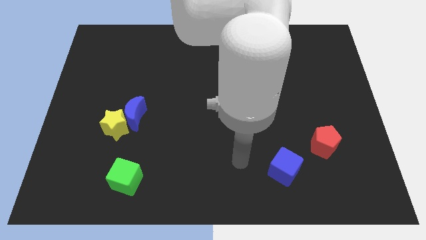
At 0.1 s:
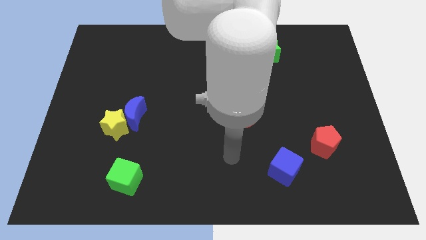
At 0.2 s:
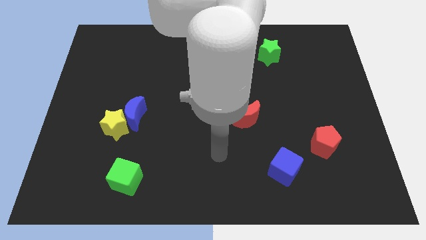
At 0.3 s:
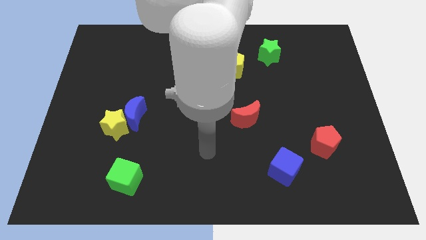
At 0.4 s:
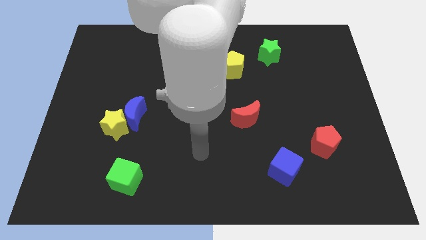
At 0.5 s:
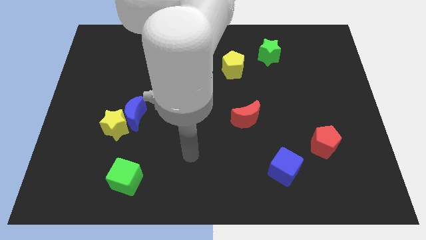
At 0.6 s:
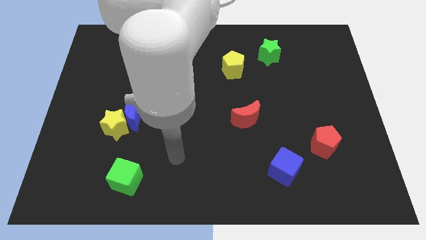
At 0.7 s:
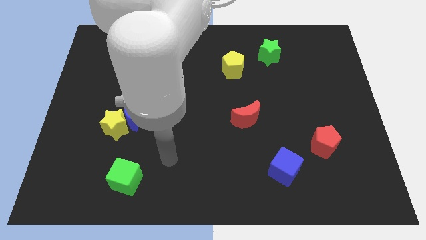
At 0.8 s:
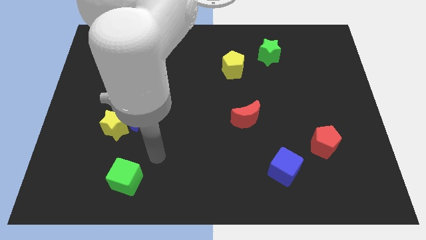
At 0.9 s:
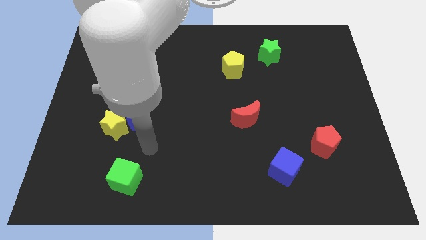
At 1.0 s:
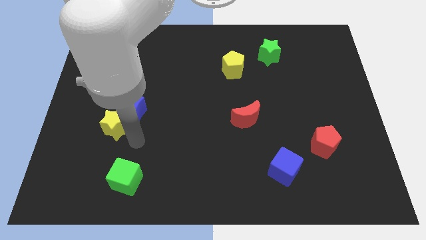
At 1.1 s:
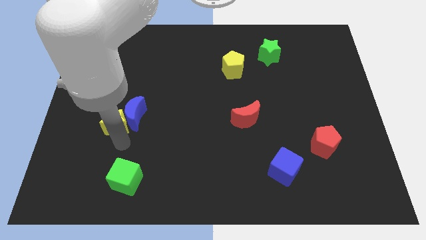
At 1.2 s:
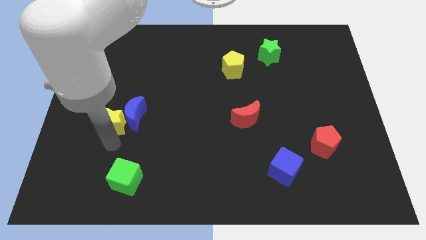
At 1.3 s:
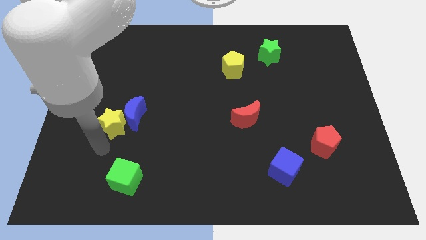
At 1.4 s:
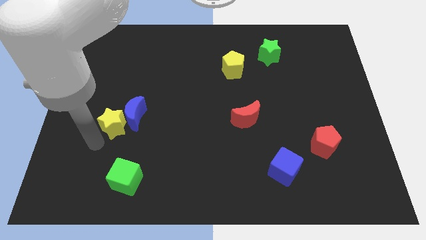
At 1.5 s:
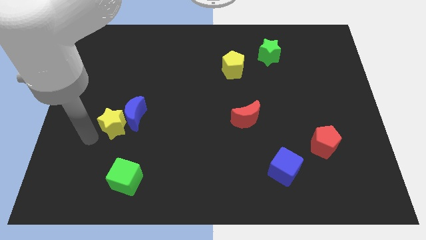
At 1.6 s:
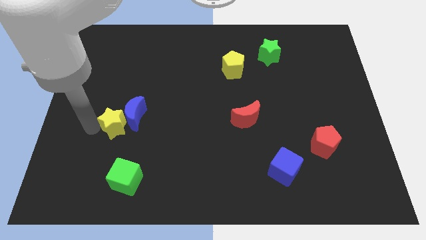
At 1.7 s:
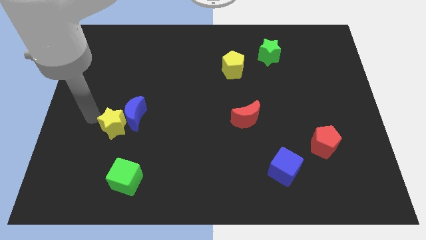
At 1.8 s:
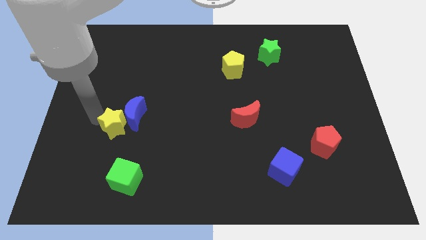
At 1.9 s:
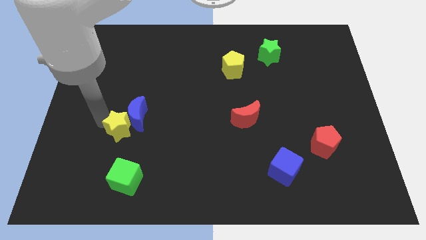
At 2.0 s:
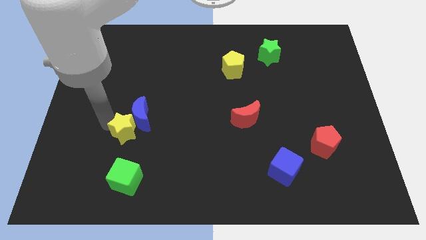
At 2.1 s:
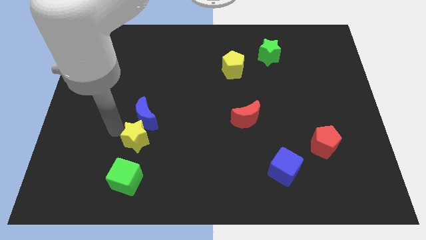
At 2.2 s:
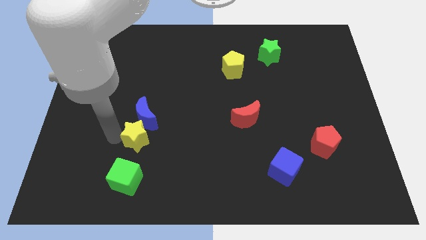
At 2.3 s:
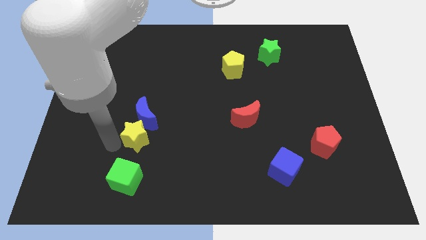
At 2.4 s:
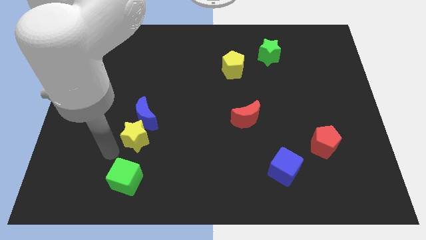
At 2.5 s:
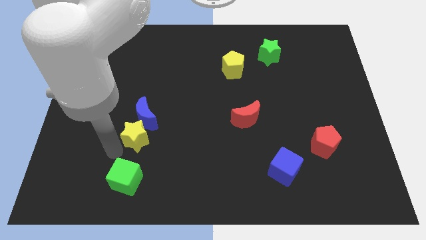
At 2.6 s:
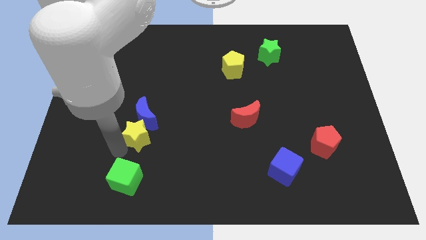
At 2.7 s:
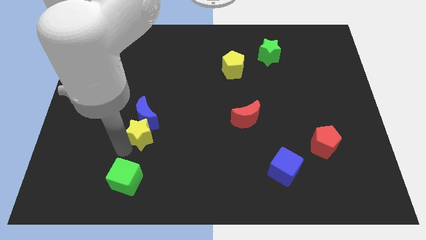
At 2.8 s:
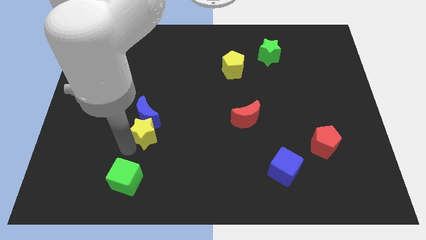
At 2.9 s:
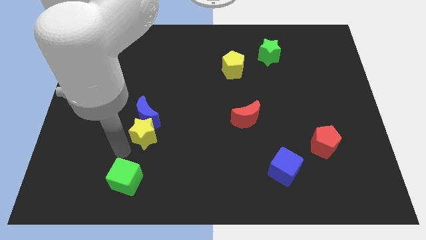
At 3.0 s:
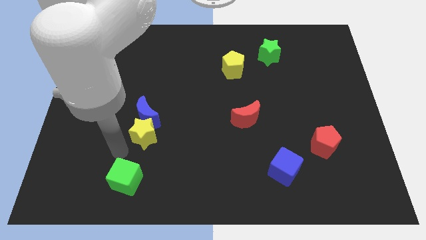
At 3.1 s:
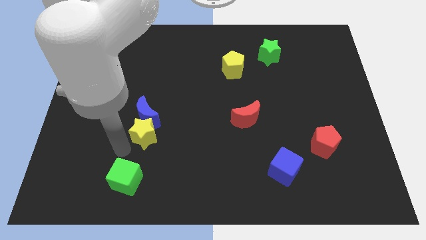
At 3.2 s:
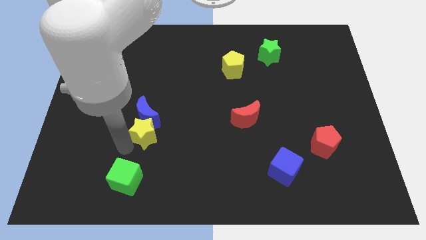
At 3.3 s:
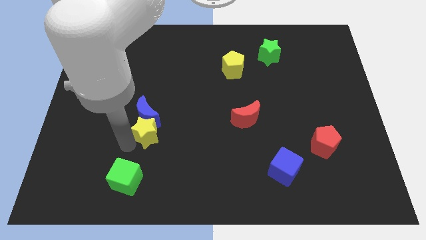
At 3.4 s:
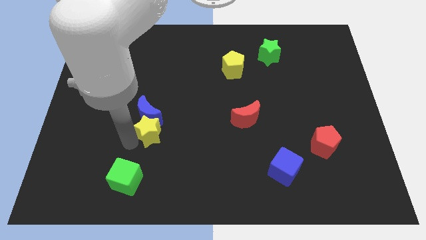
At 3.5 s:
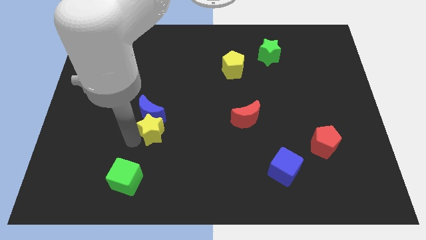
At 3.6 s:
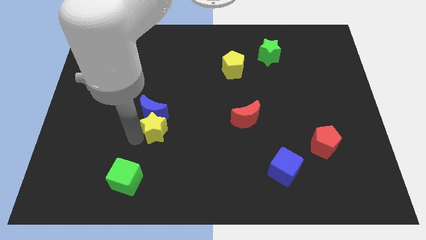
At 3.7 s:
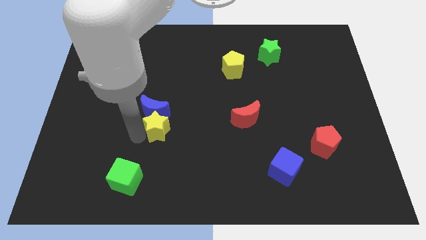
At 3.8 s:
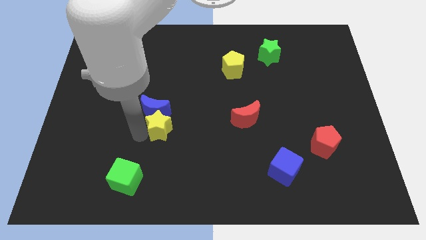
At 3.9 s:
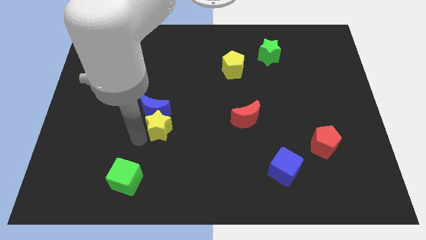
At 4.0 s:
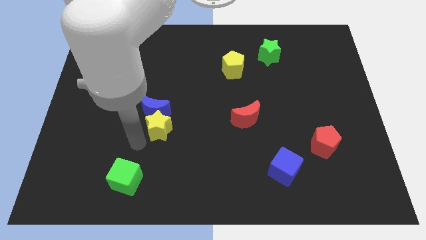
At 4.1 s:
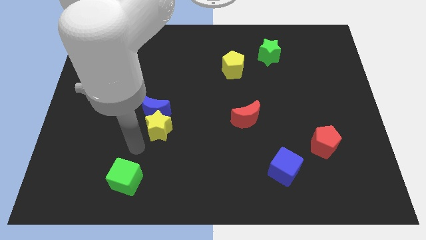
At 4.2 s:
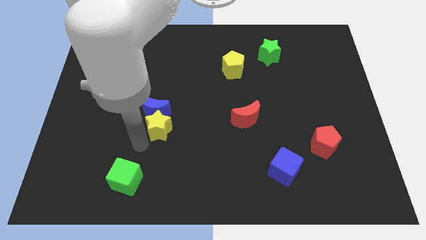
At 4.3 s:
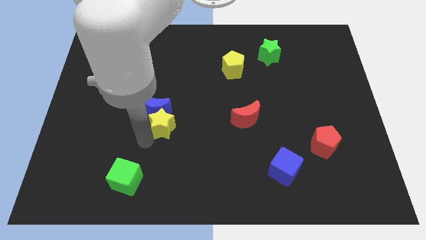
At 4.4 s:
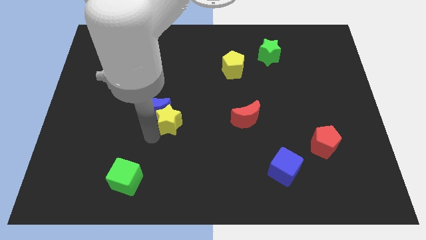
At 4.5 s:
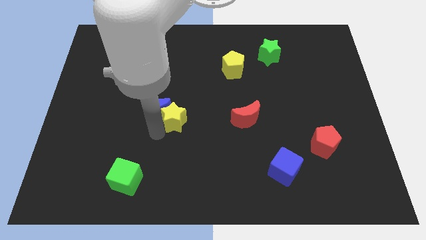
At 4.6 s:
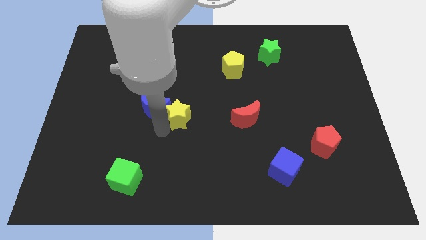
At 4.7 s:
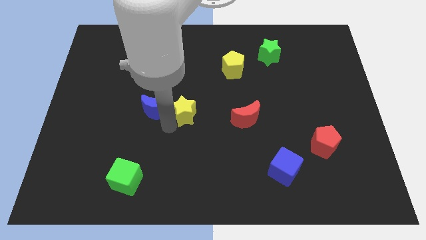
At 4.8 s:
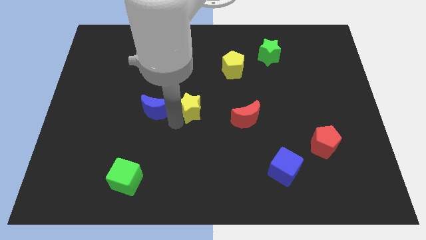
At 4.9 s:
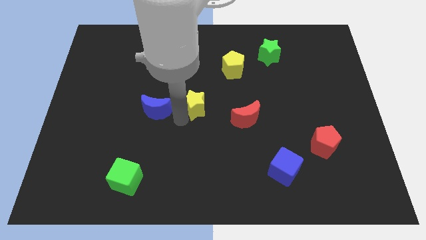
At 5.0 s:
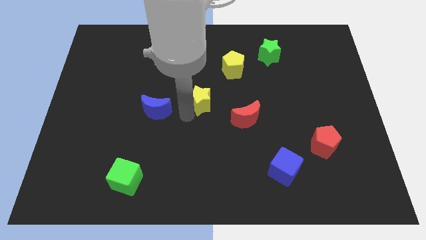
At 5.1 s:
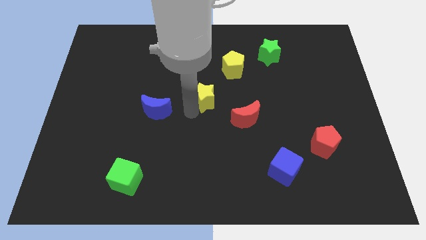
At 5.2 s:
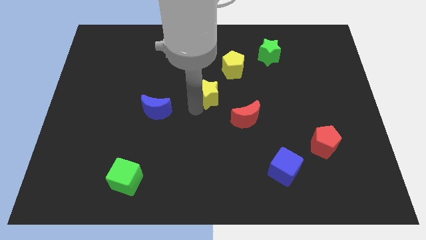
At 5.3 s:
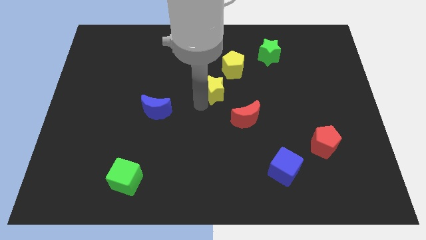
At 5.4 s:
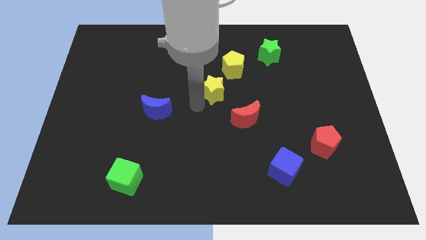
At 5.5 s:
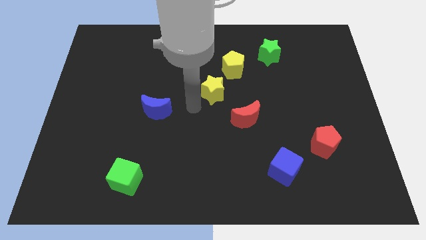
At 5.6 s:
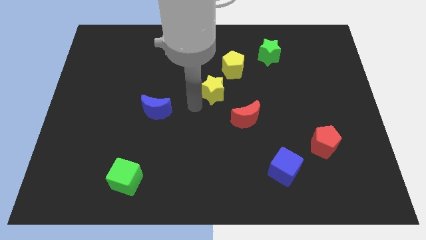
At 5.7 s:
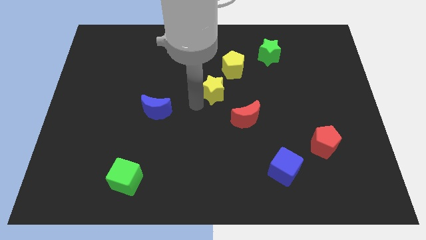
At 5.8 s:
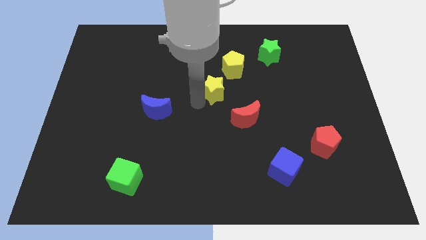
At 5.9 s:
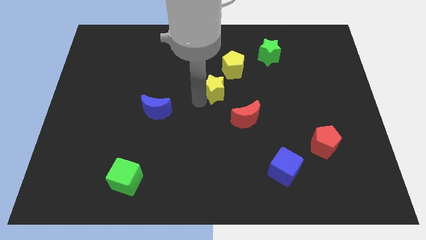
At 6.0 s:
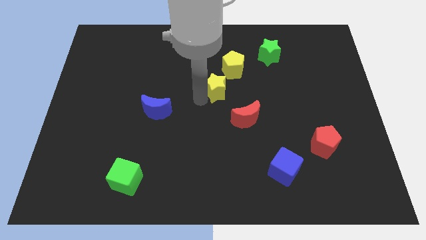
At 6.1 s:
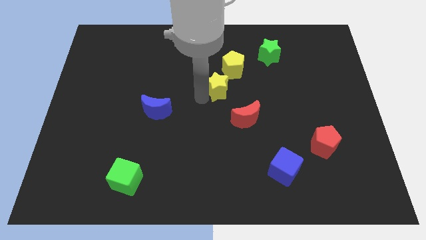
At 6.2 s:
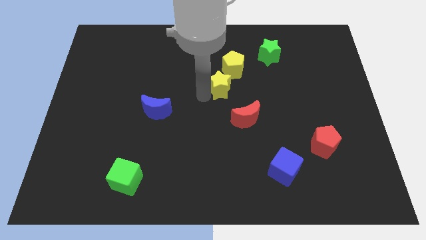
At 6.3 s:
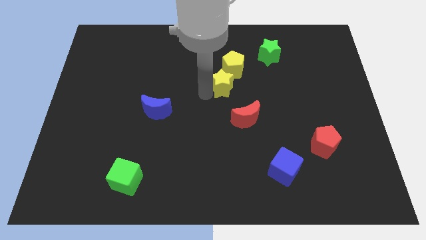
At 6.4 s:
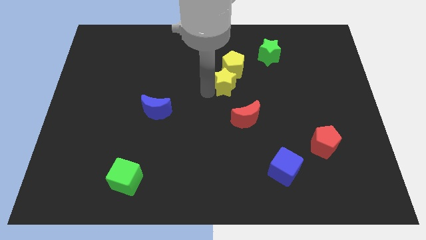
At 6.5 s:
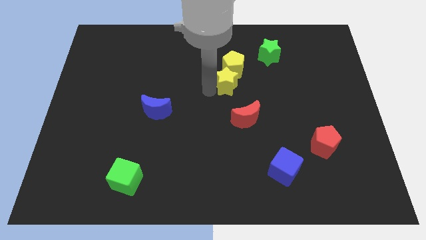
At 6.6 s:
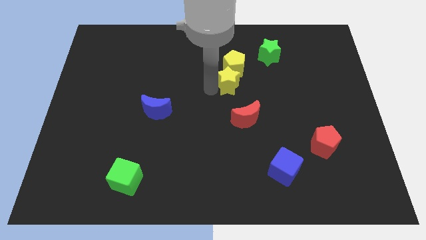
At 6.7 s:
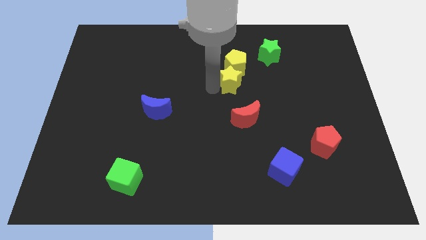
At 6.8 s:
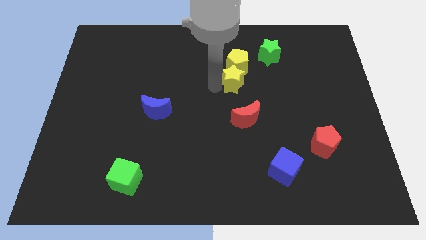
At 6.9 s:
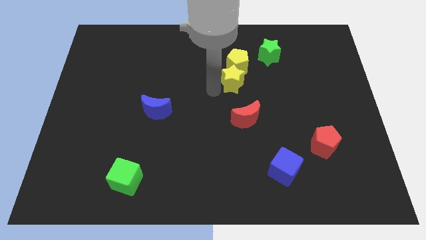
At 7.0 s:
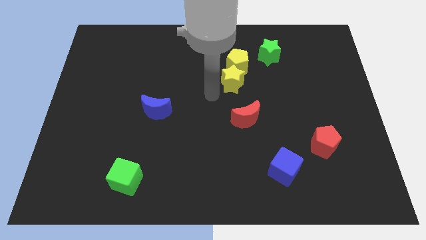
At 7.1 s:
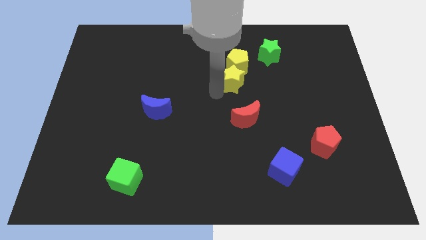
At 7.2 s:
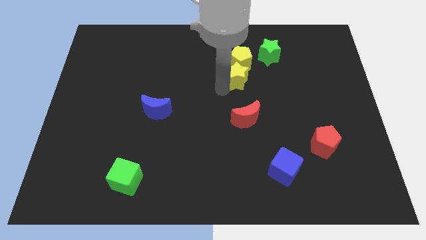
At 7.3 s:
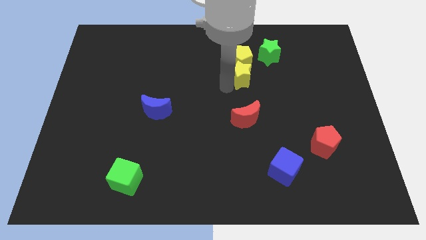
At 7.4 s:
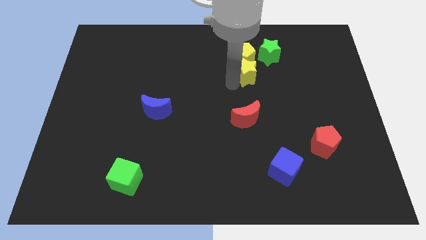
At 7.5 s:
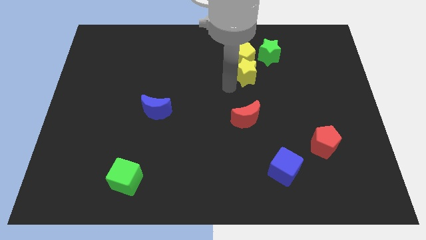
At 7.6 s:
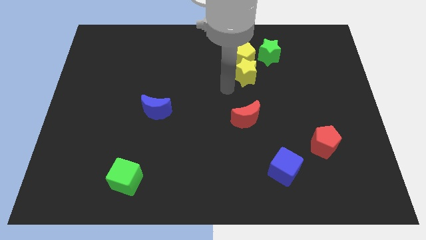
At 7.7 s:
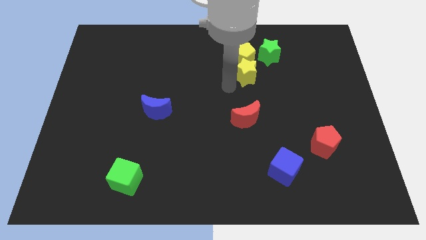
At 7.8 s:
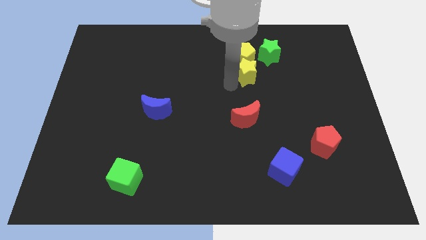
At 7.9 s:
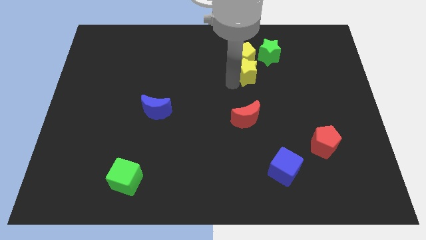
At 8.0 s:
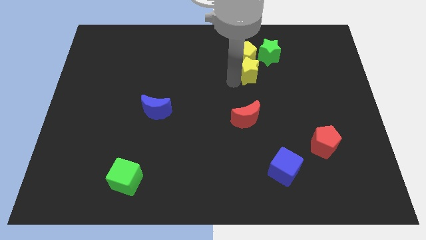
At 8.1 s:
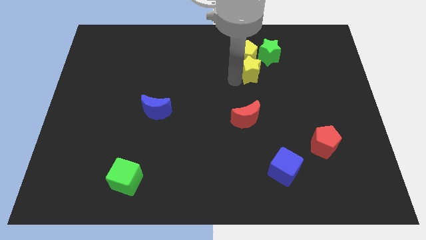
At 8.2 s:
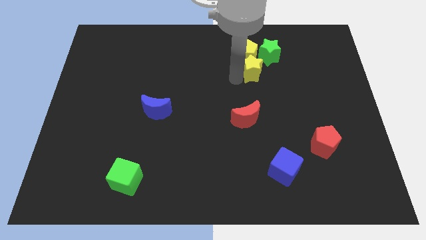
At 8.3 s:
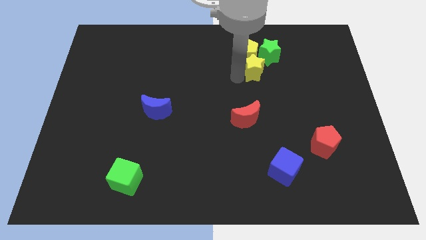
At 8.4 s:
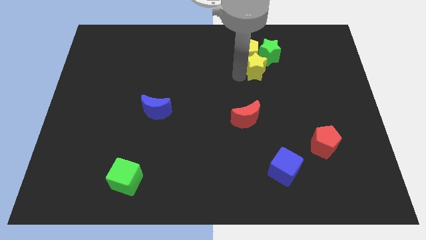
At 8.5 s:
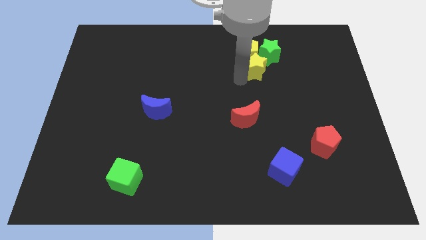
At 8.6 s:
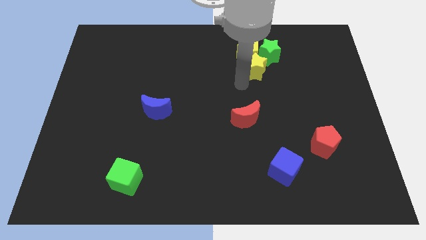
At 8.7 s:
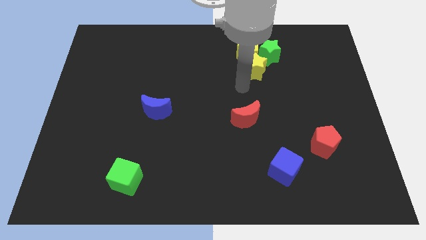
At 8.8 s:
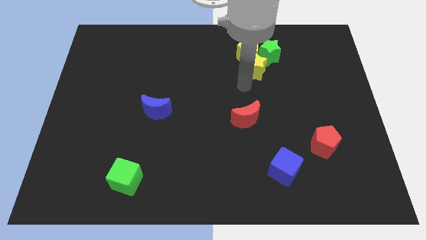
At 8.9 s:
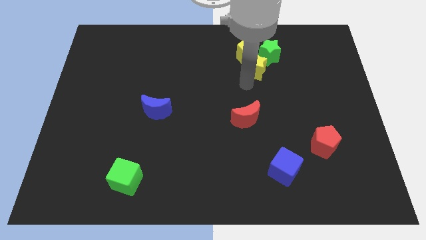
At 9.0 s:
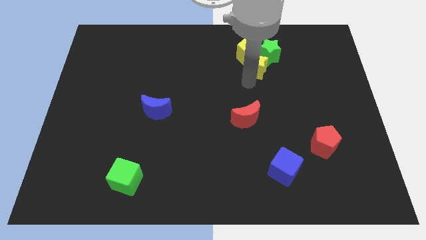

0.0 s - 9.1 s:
push the yellow star towards the green star
